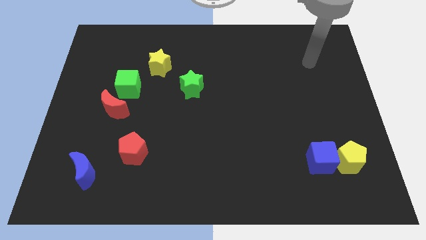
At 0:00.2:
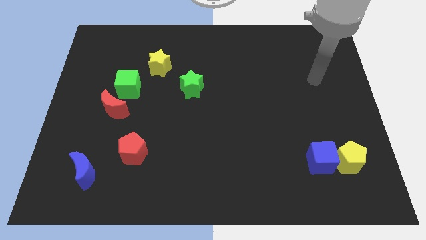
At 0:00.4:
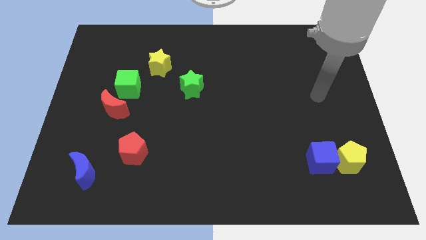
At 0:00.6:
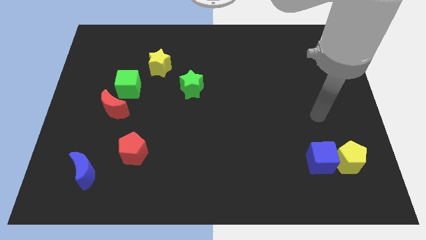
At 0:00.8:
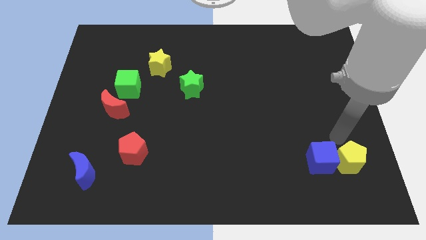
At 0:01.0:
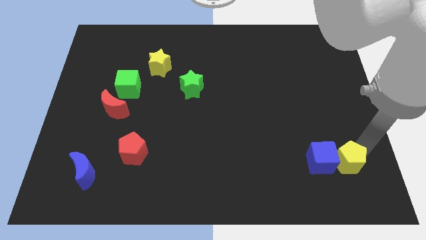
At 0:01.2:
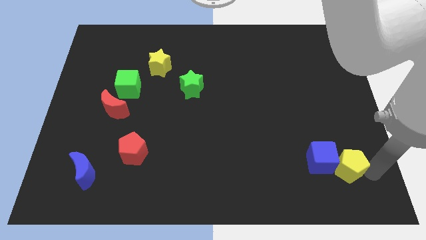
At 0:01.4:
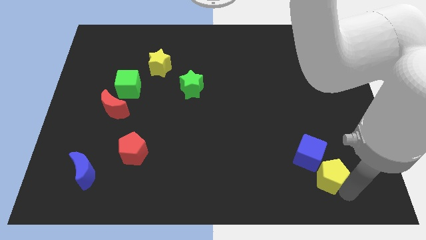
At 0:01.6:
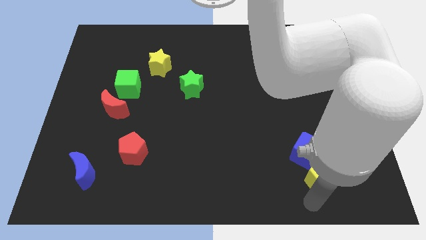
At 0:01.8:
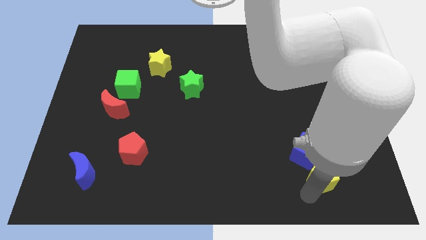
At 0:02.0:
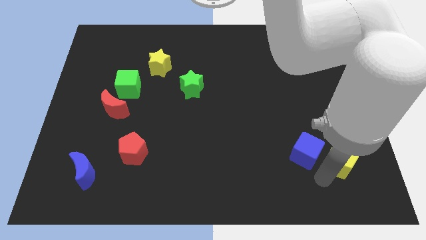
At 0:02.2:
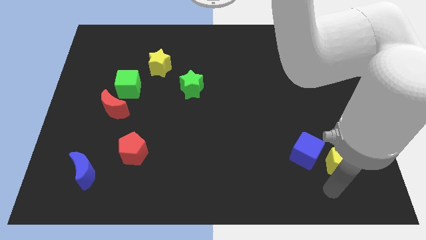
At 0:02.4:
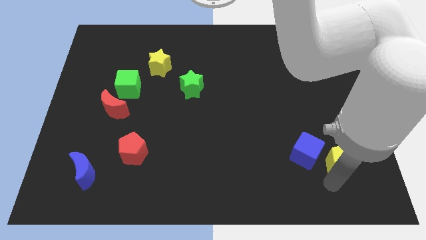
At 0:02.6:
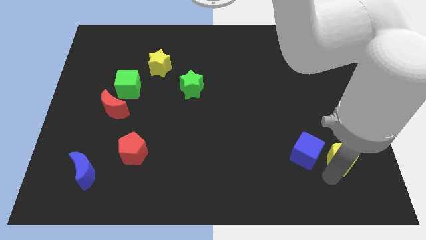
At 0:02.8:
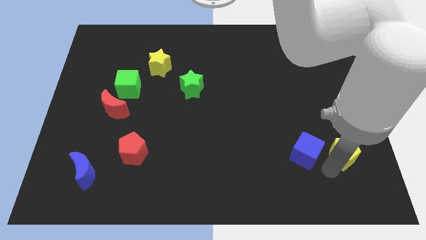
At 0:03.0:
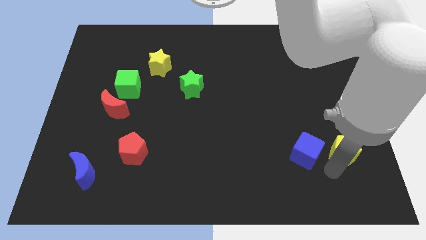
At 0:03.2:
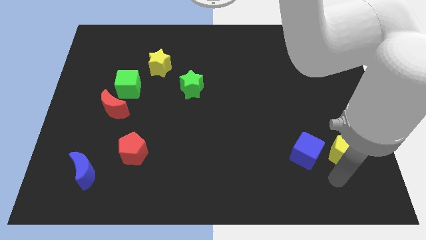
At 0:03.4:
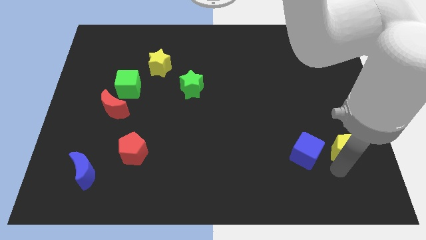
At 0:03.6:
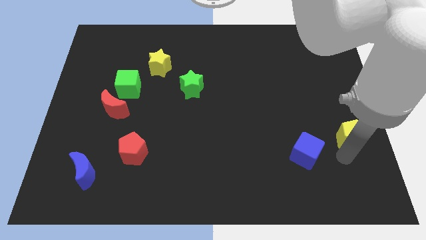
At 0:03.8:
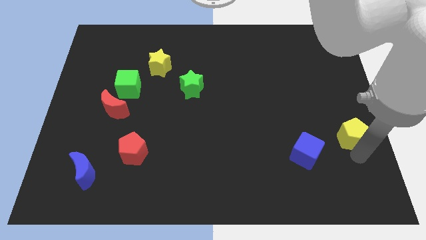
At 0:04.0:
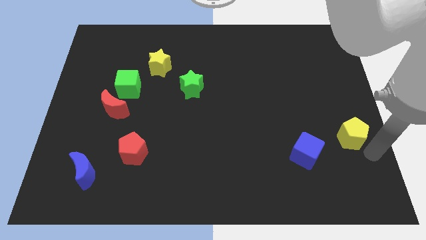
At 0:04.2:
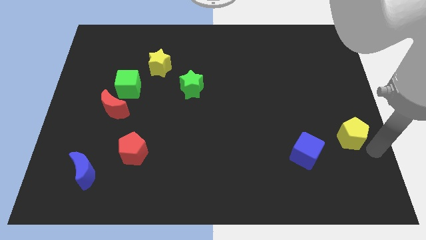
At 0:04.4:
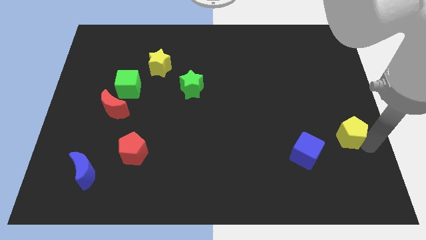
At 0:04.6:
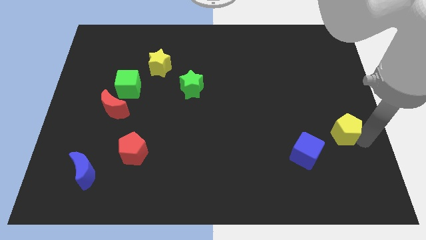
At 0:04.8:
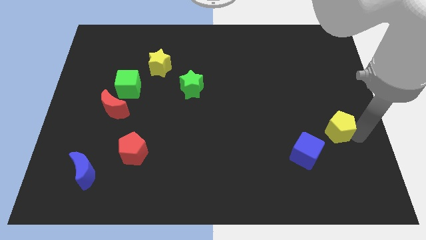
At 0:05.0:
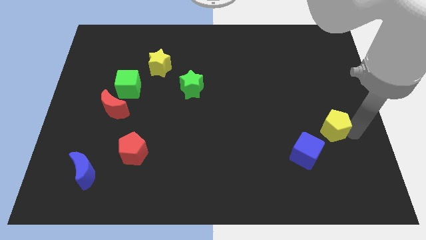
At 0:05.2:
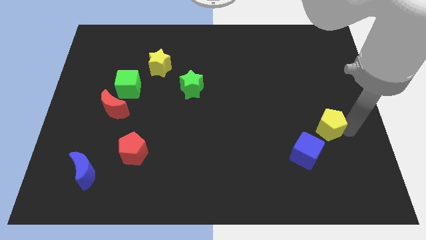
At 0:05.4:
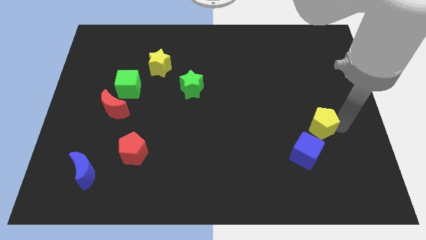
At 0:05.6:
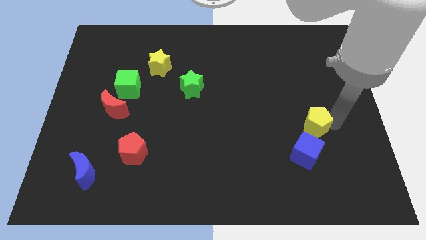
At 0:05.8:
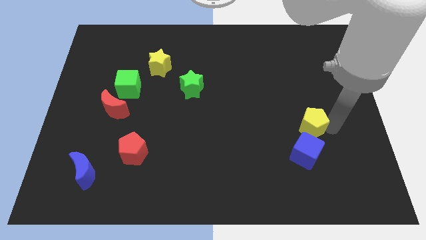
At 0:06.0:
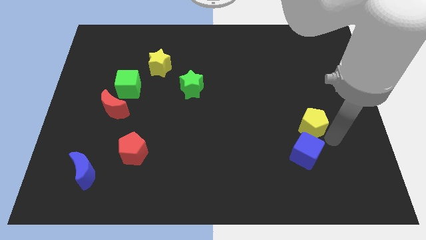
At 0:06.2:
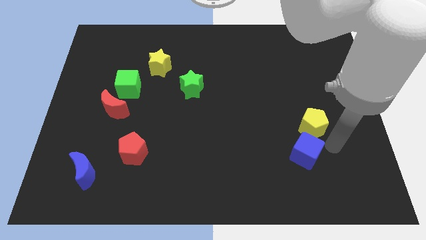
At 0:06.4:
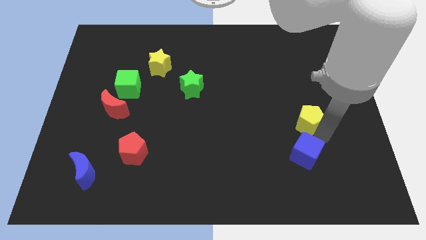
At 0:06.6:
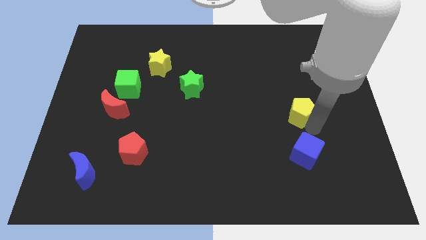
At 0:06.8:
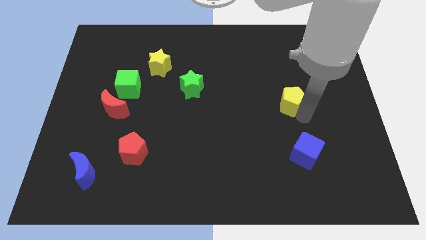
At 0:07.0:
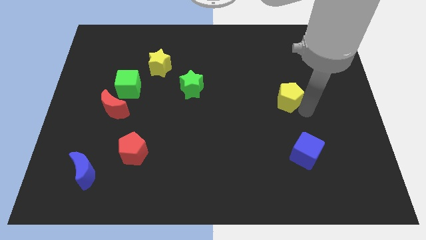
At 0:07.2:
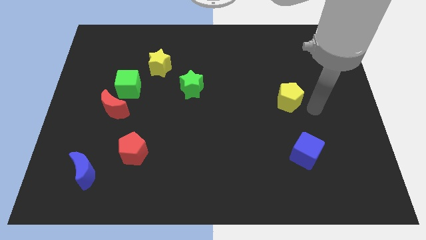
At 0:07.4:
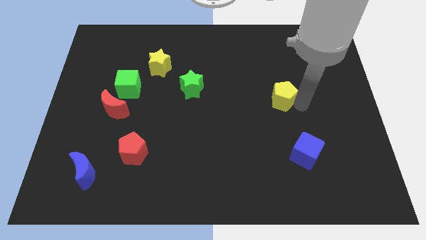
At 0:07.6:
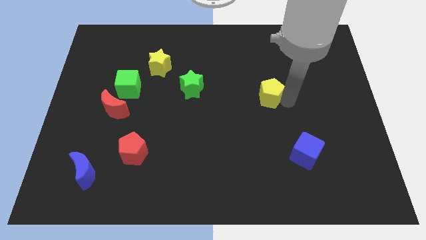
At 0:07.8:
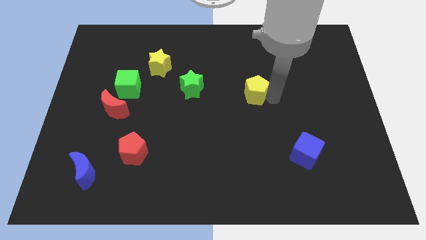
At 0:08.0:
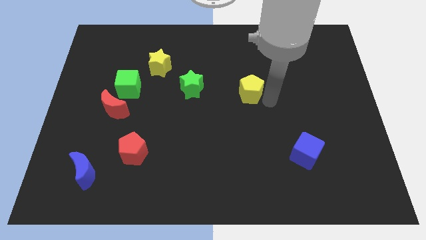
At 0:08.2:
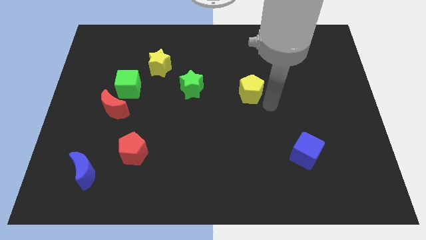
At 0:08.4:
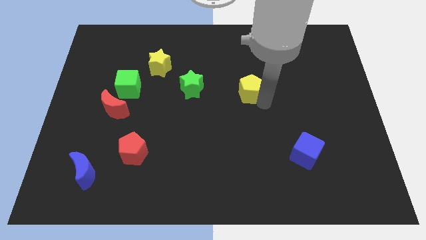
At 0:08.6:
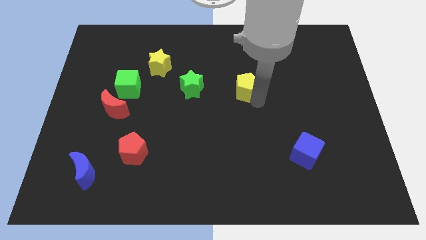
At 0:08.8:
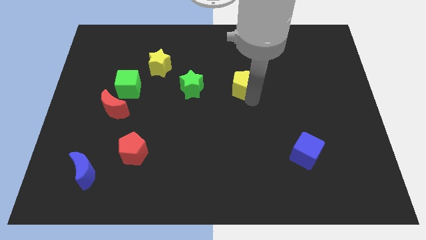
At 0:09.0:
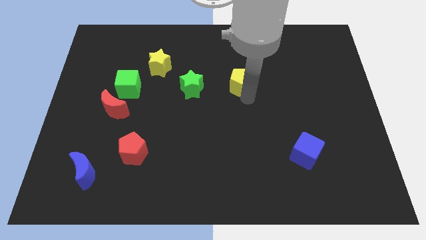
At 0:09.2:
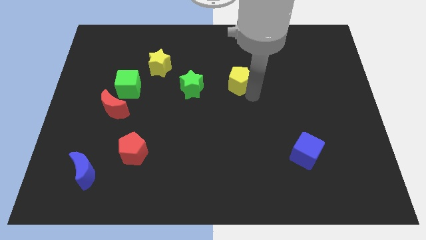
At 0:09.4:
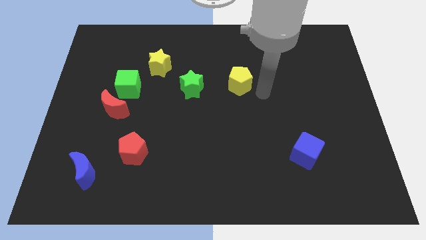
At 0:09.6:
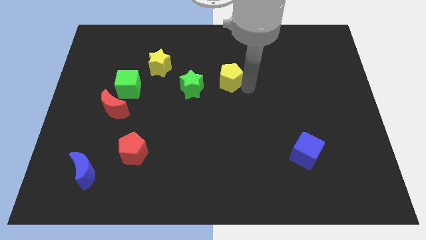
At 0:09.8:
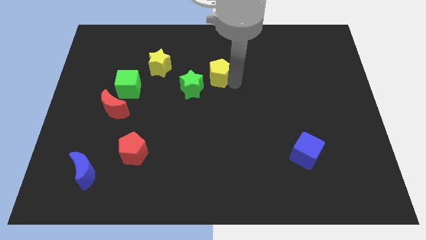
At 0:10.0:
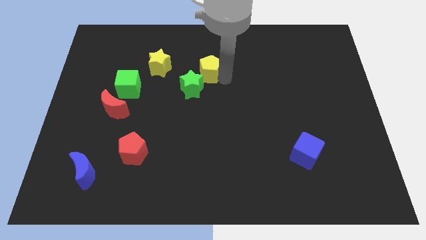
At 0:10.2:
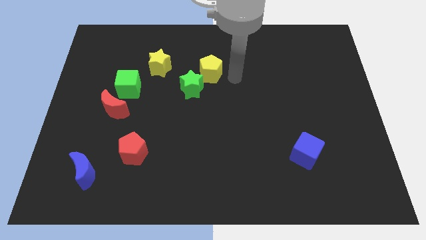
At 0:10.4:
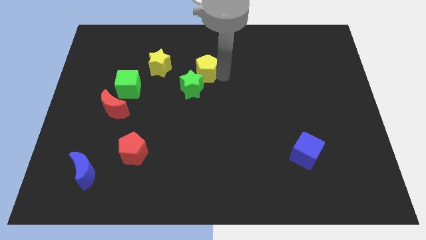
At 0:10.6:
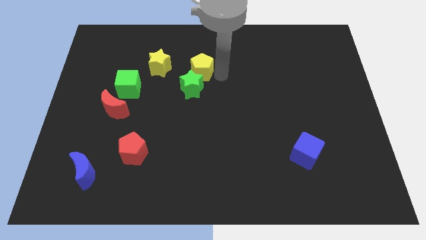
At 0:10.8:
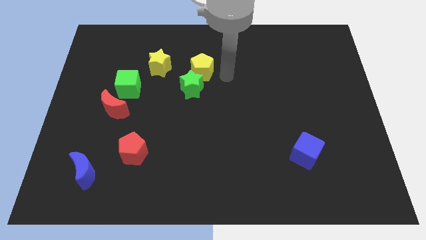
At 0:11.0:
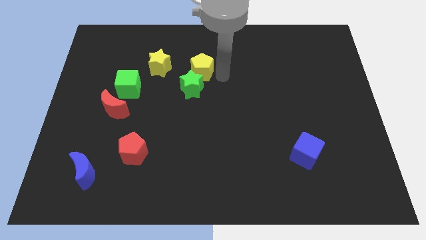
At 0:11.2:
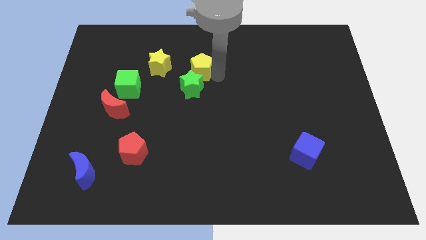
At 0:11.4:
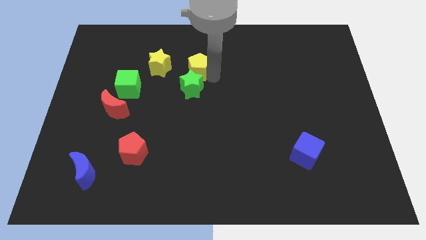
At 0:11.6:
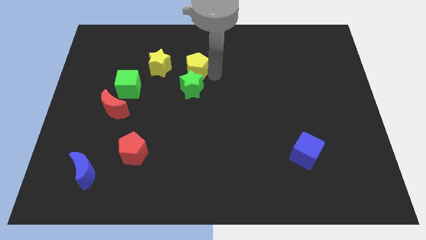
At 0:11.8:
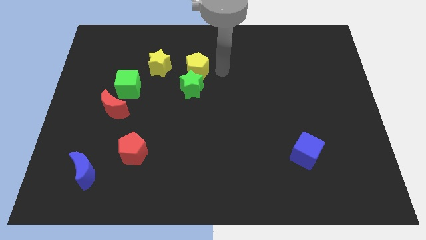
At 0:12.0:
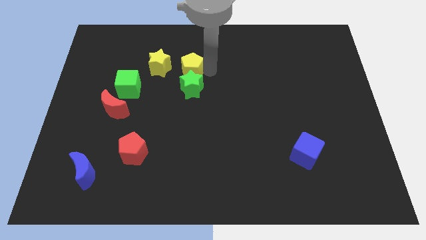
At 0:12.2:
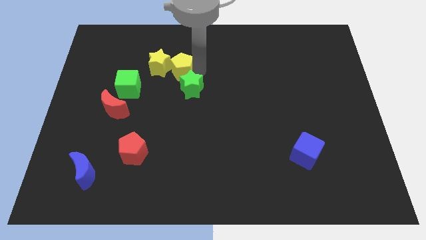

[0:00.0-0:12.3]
move the yellow pentagon towards the yellow star
